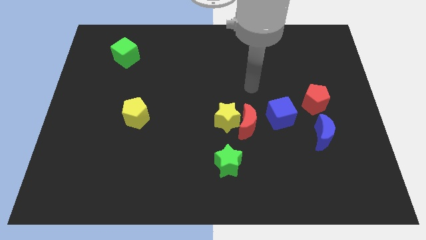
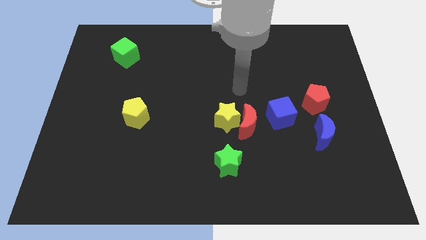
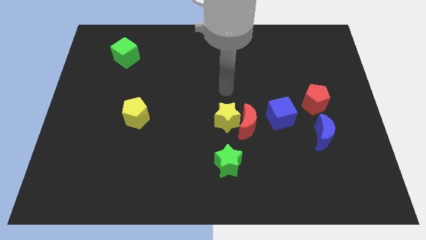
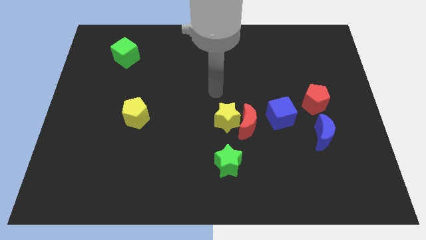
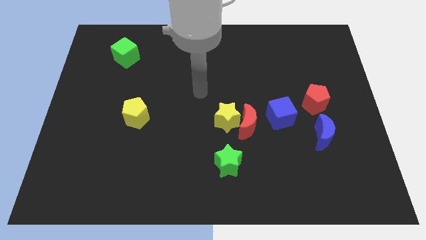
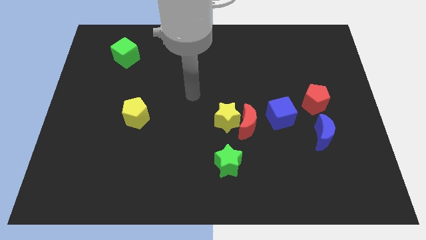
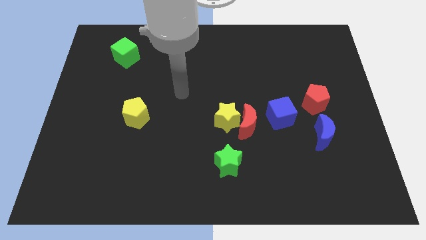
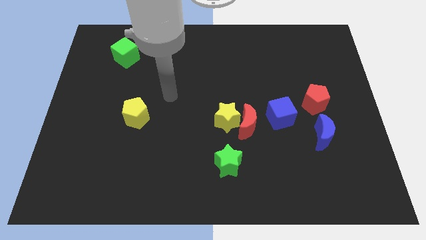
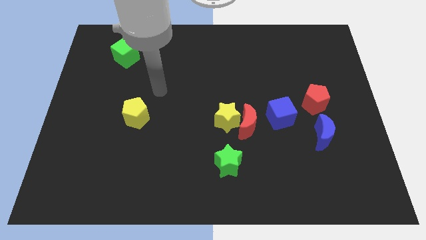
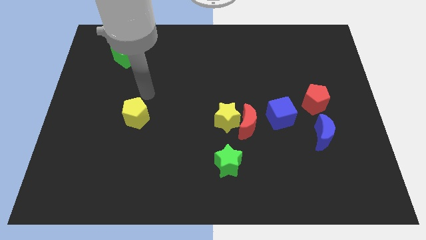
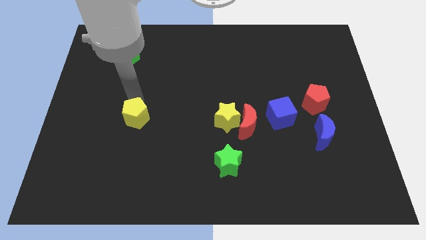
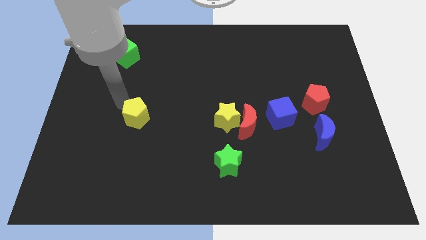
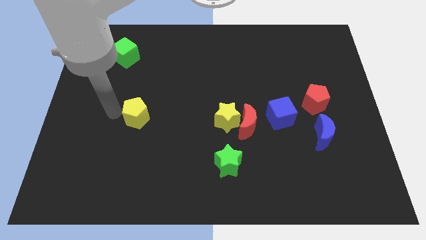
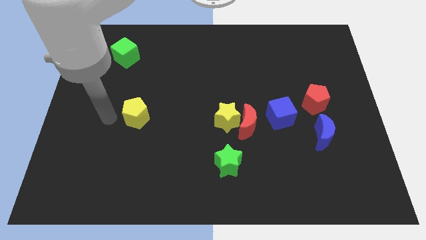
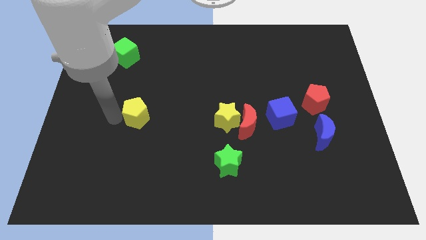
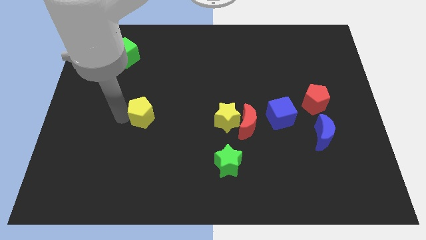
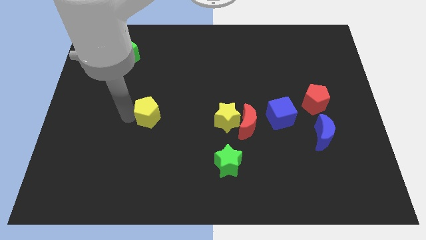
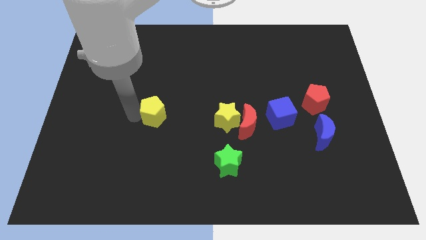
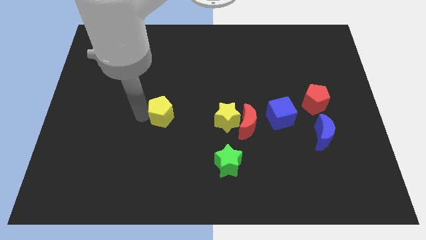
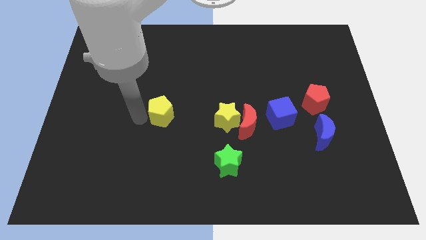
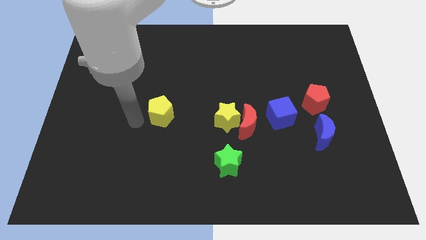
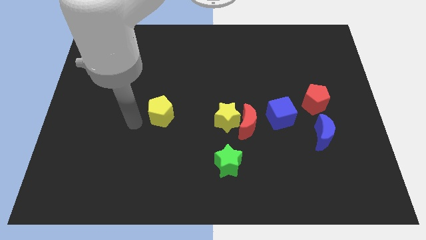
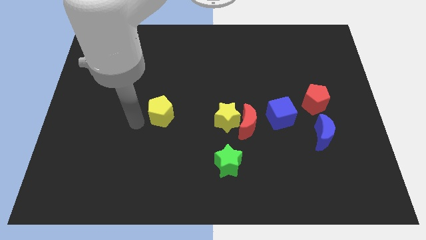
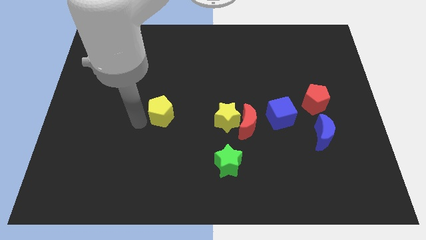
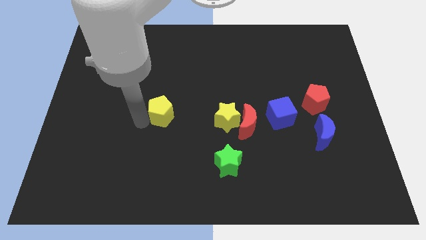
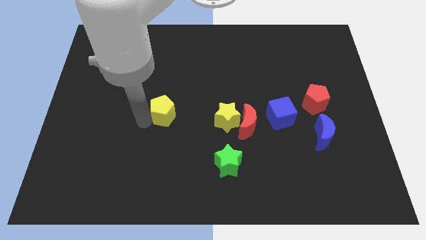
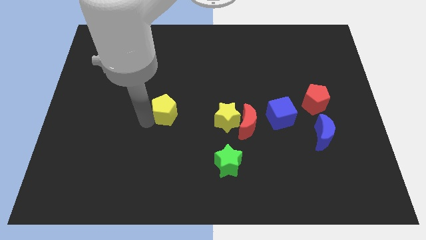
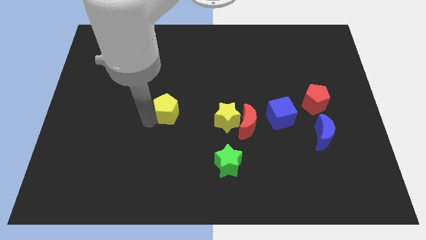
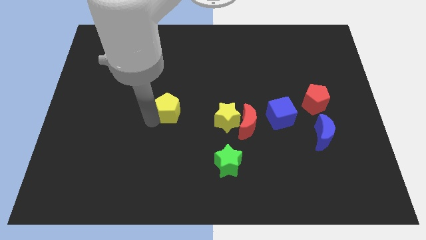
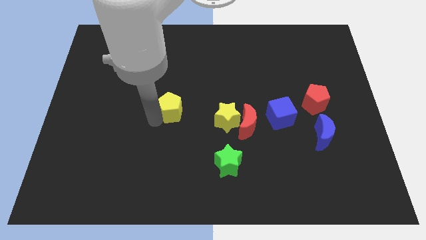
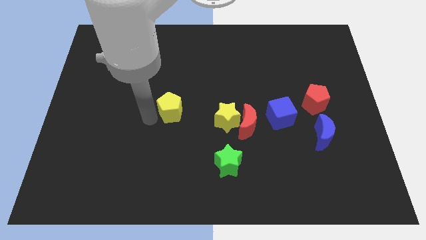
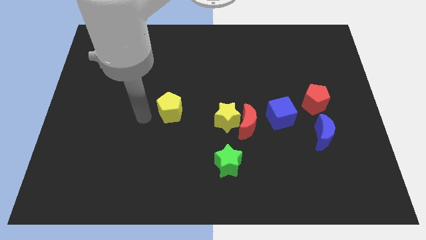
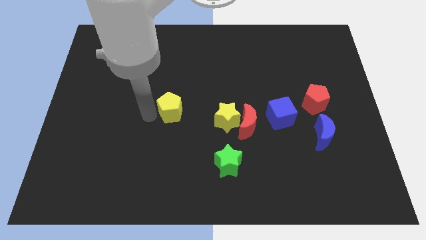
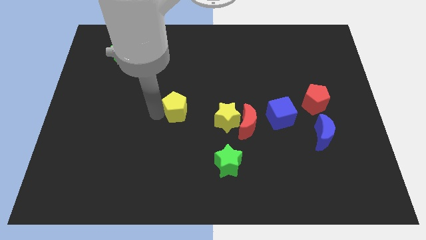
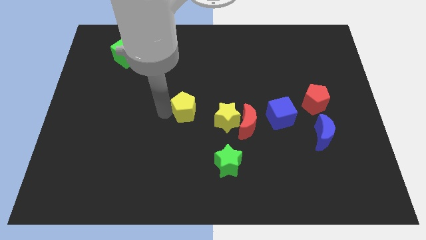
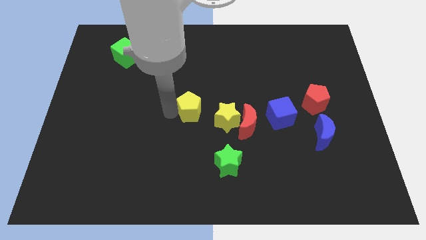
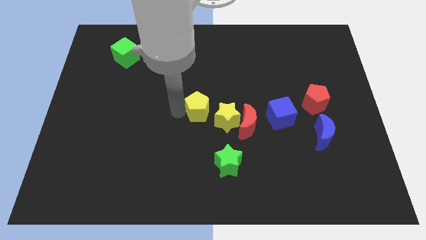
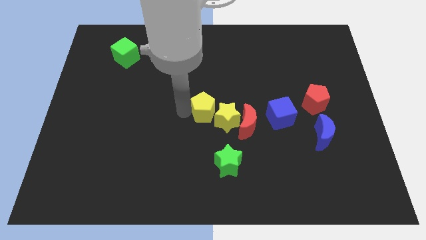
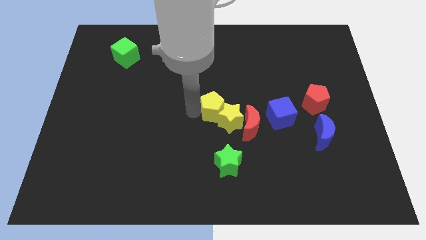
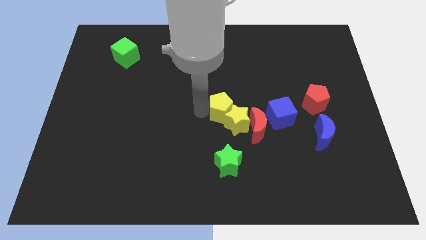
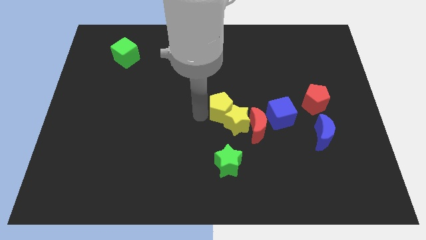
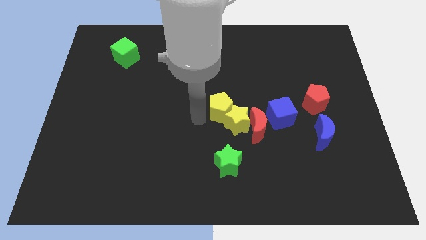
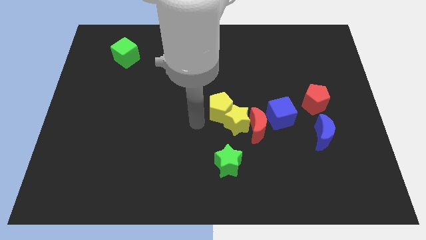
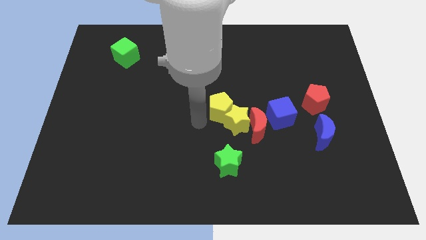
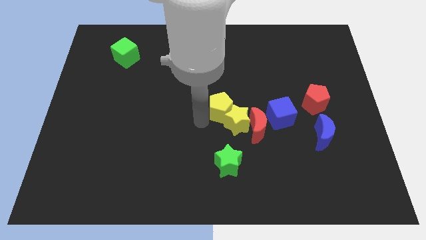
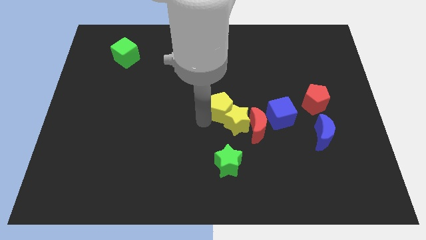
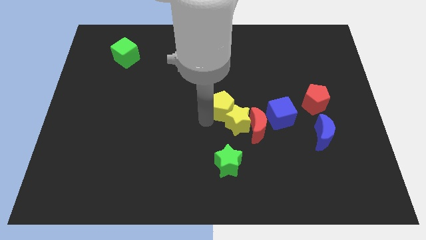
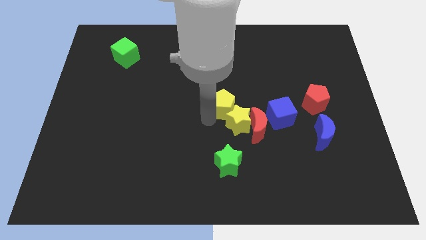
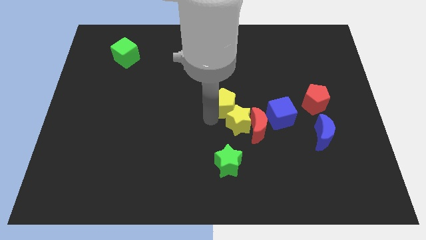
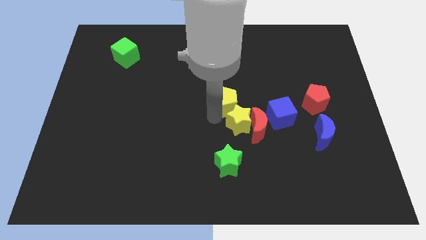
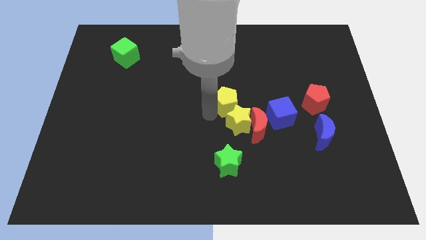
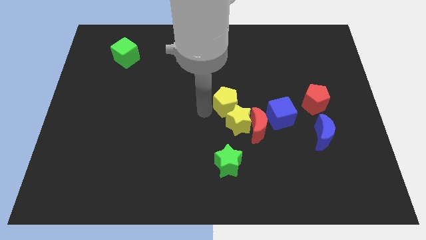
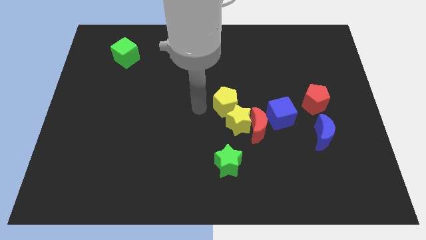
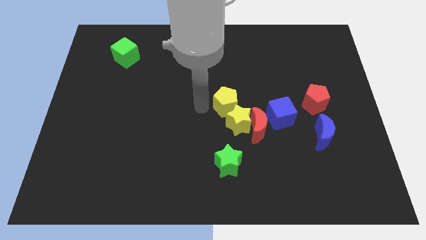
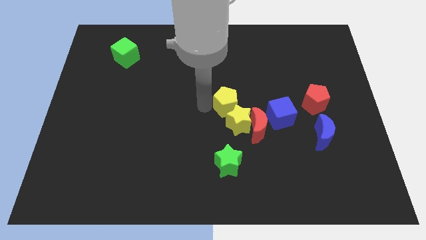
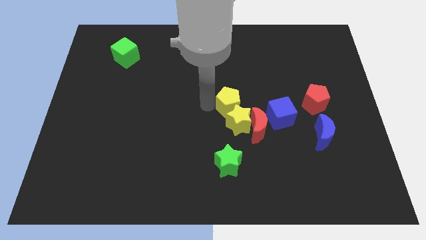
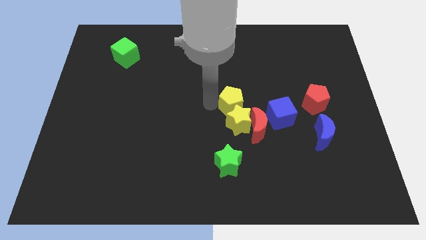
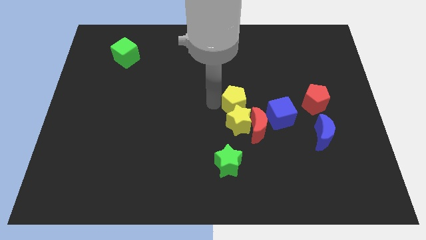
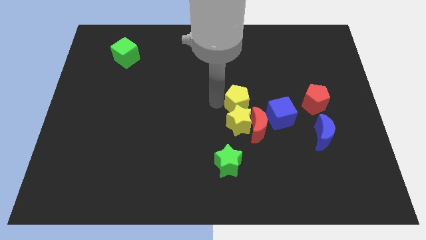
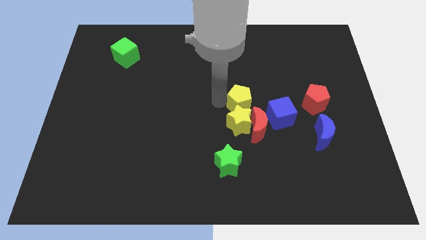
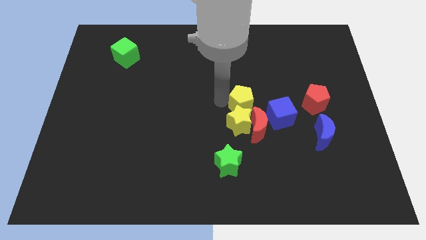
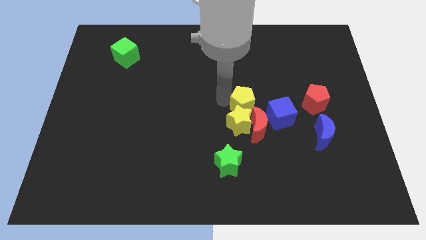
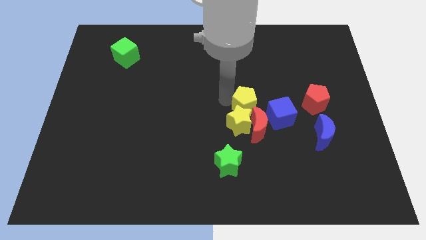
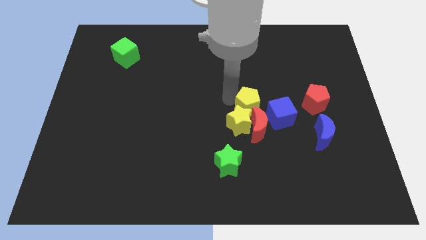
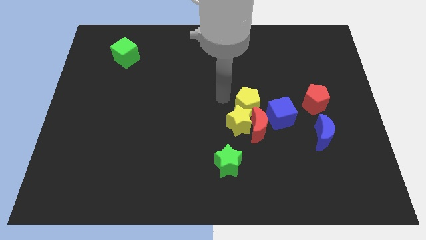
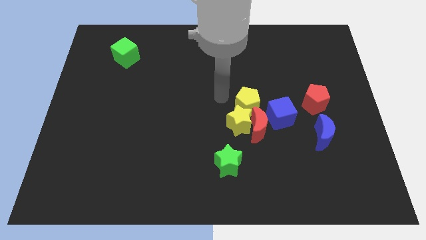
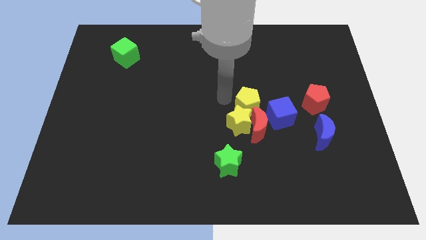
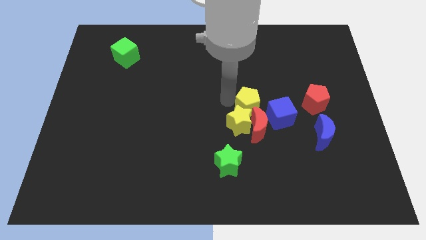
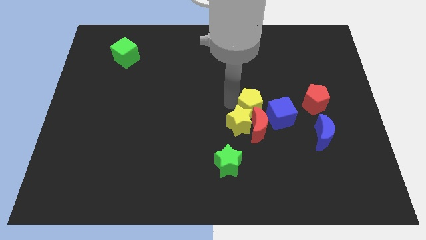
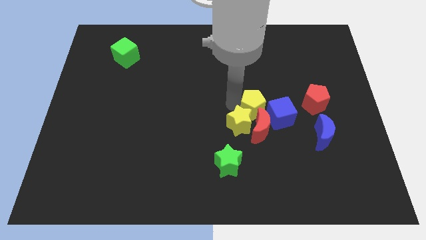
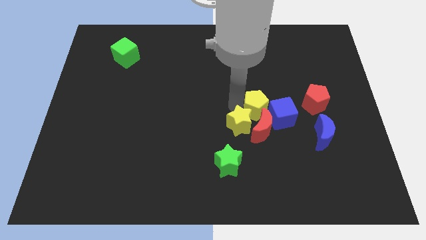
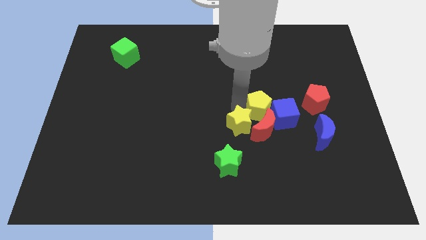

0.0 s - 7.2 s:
slide the yellow pentagon next to the blue cube

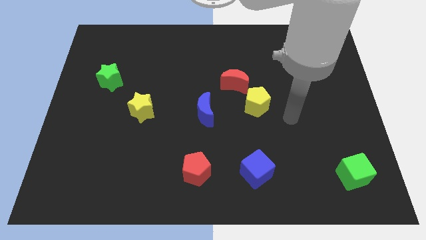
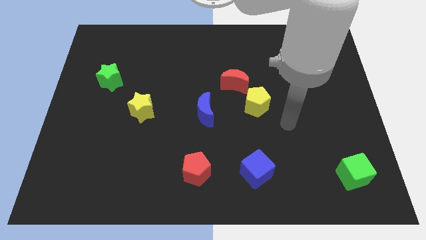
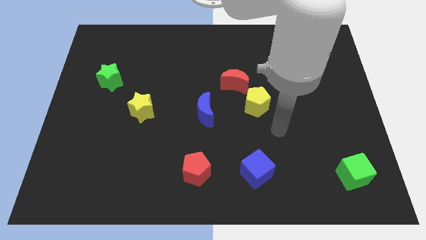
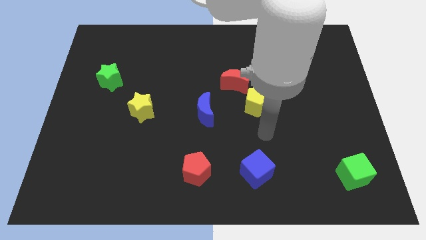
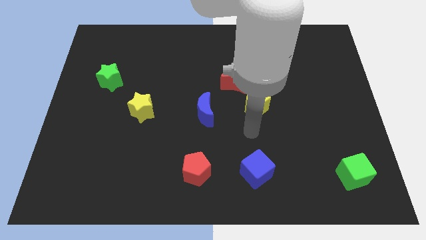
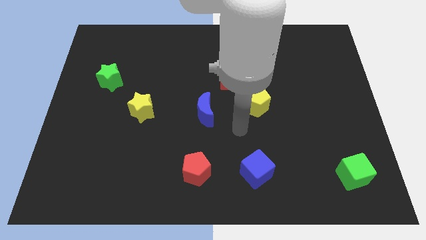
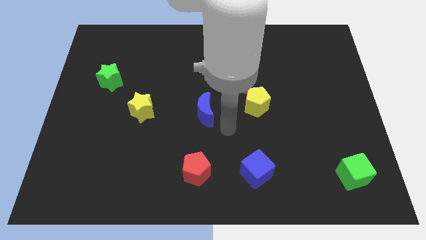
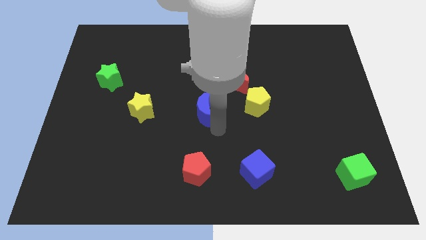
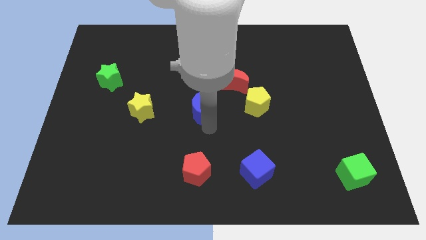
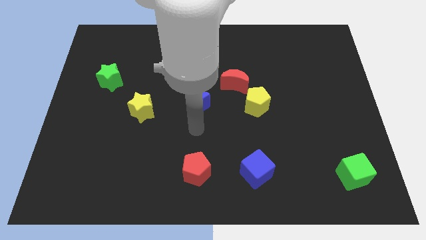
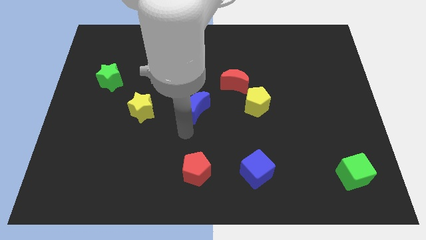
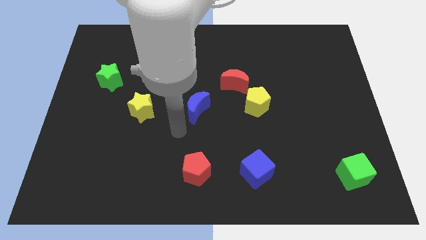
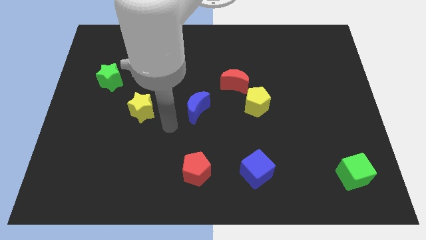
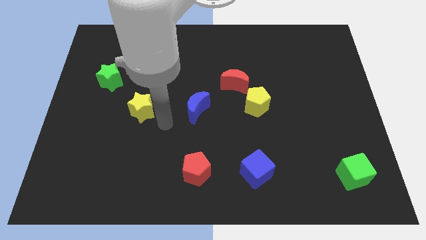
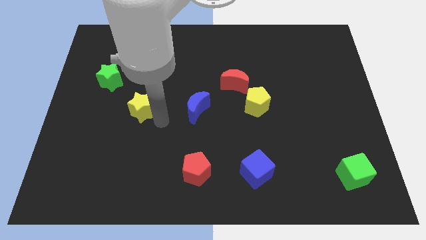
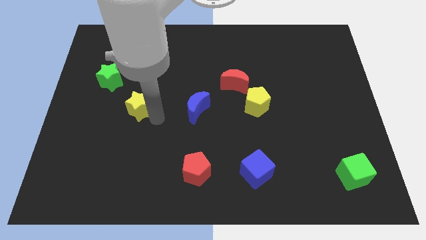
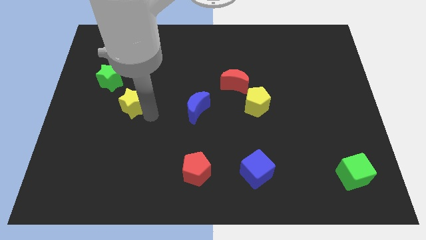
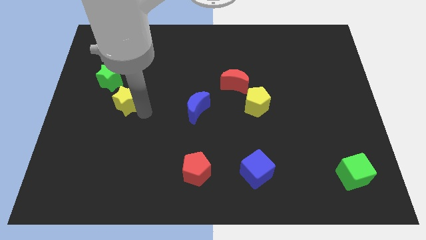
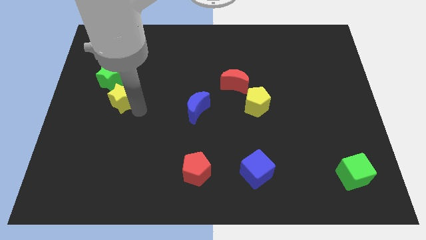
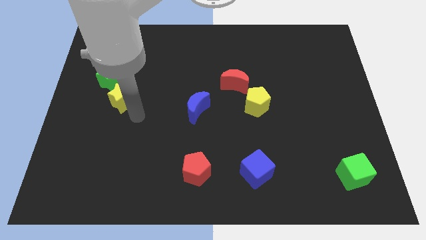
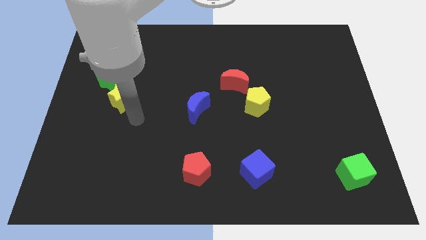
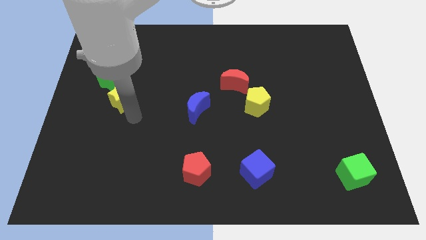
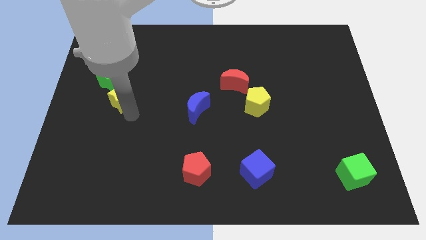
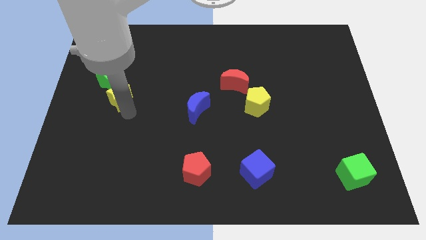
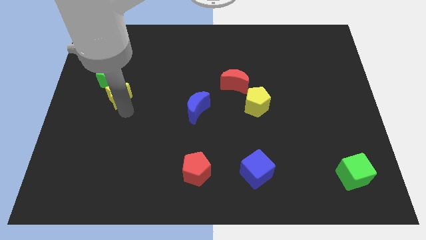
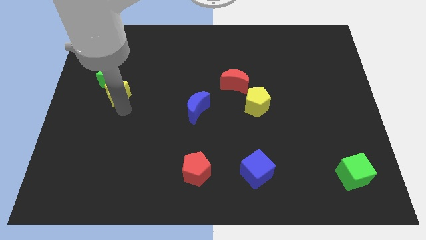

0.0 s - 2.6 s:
put the yellow star next to the green star
